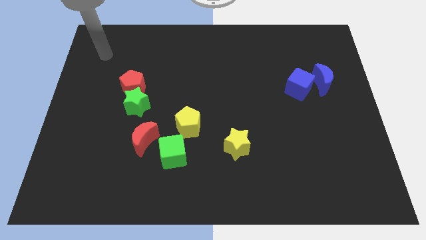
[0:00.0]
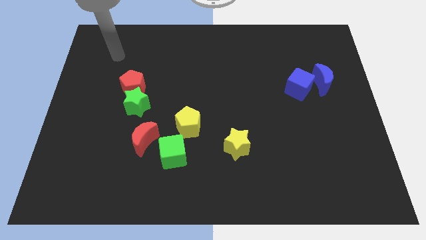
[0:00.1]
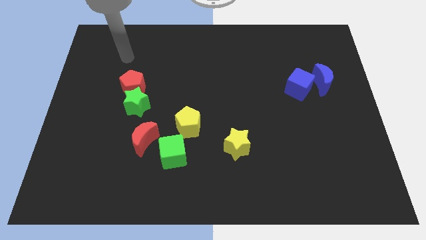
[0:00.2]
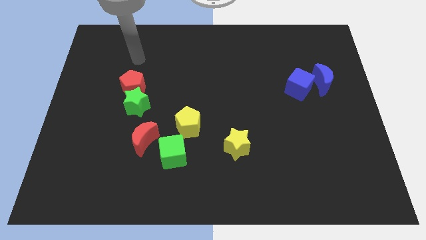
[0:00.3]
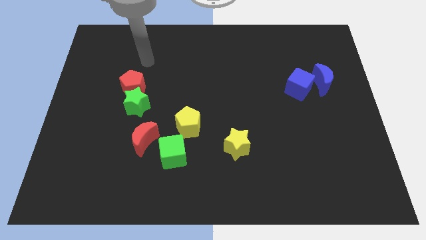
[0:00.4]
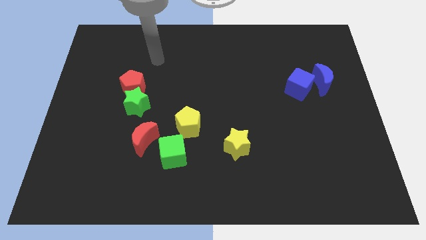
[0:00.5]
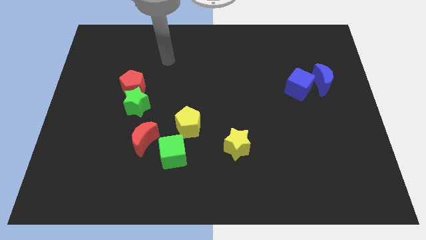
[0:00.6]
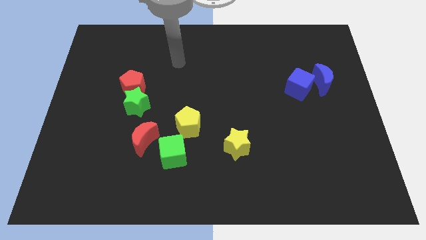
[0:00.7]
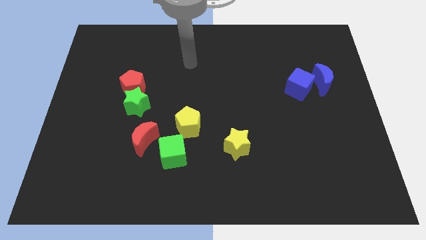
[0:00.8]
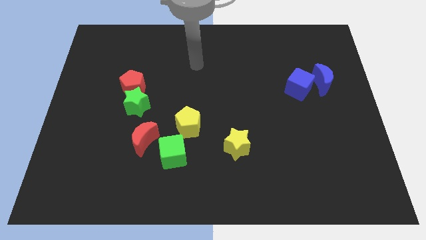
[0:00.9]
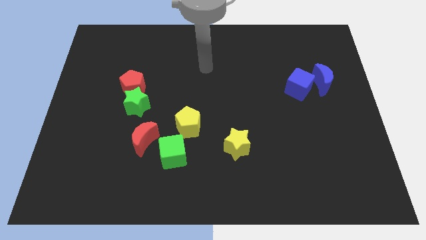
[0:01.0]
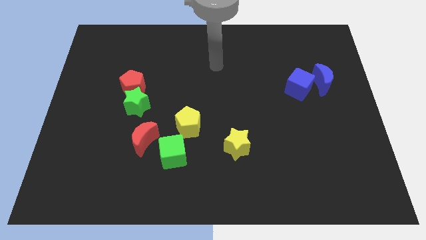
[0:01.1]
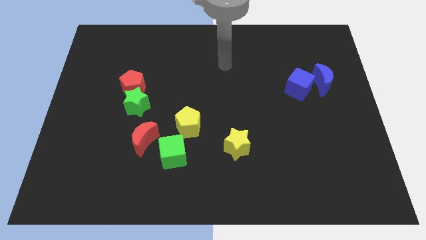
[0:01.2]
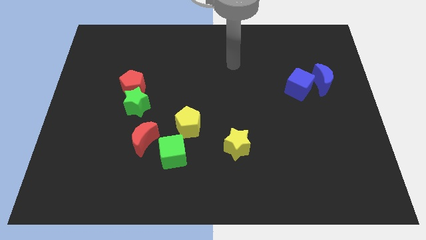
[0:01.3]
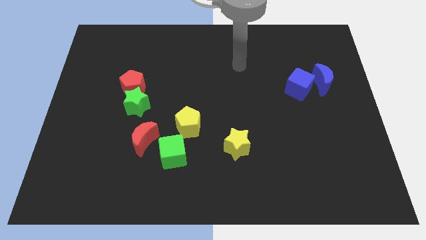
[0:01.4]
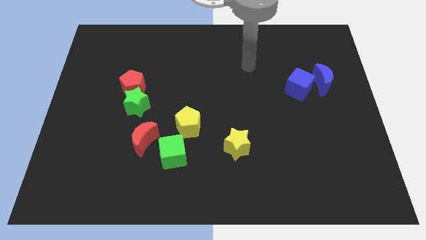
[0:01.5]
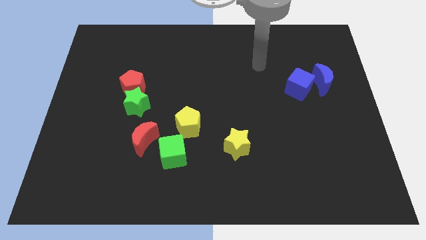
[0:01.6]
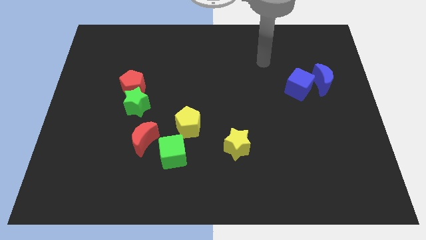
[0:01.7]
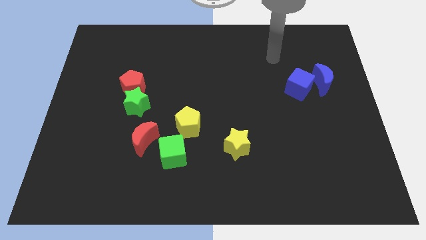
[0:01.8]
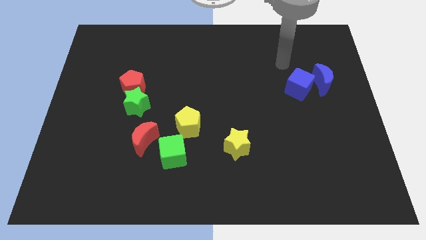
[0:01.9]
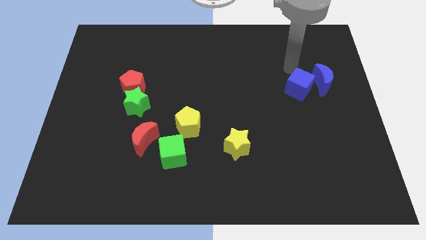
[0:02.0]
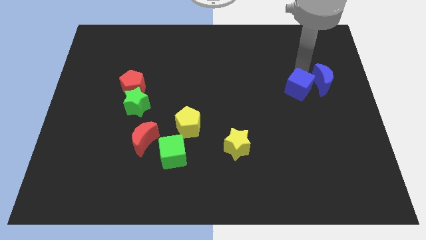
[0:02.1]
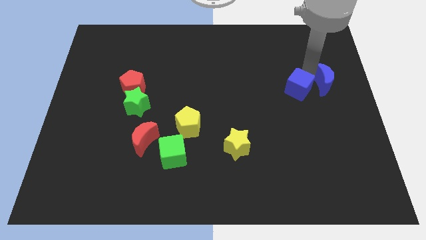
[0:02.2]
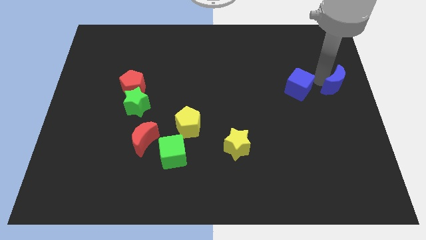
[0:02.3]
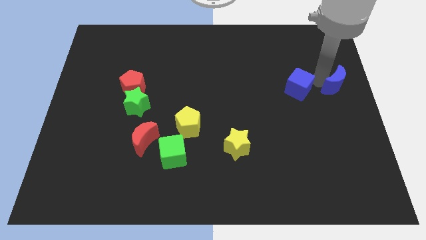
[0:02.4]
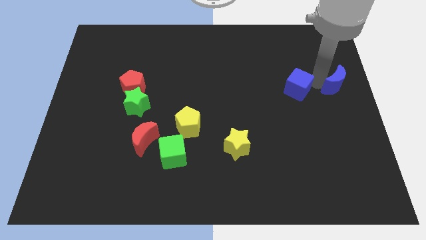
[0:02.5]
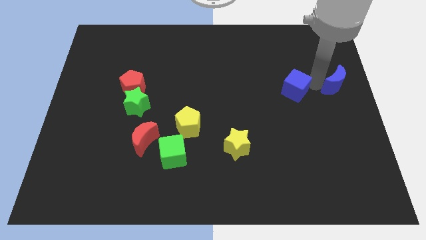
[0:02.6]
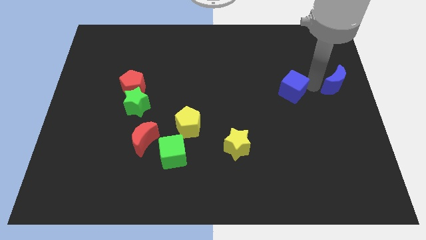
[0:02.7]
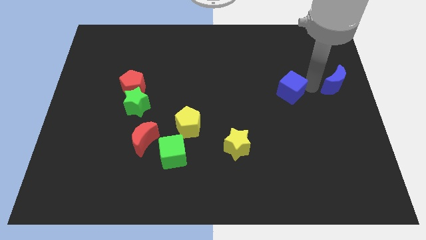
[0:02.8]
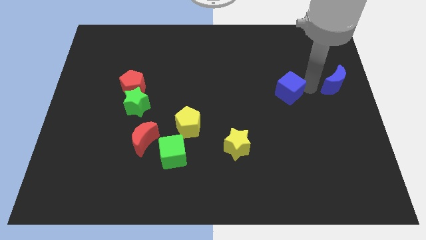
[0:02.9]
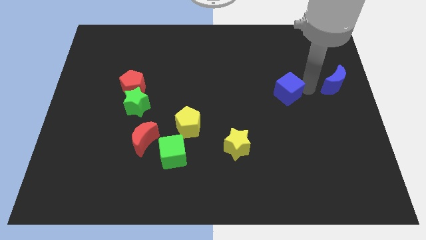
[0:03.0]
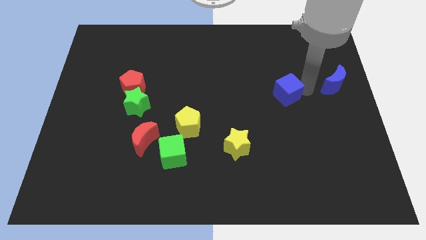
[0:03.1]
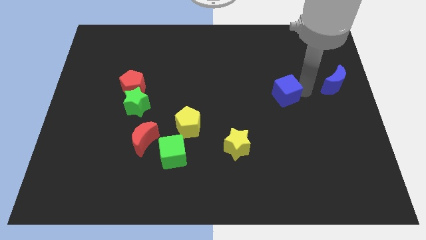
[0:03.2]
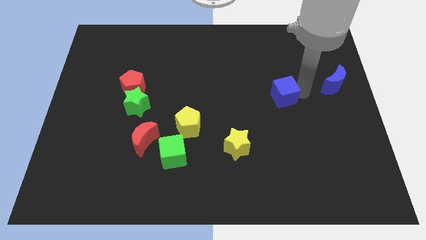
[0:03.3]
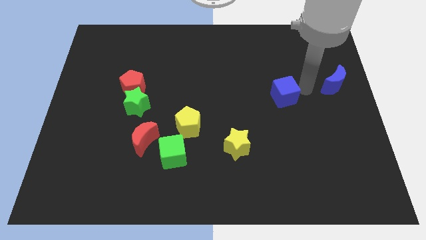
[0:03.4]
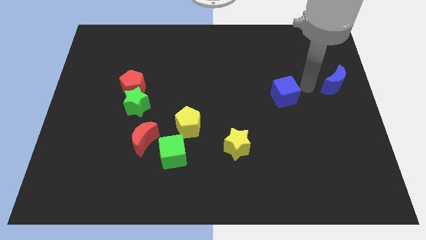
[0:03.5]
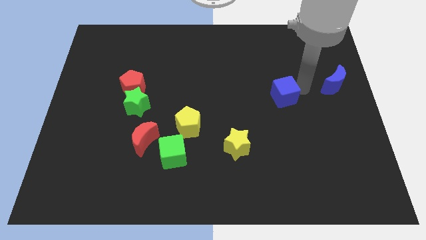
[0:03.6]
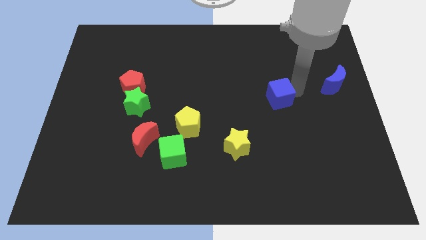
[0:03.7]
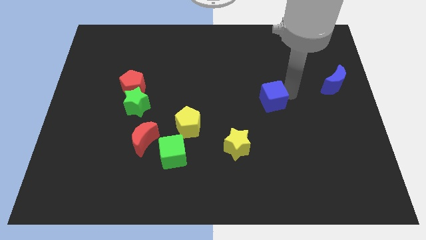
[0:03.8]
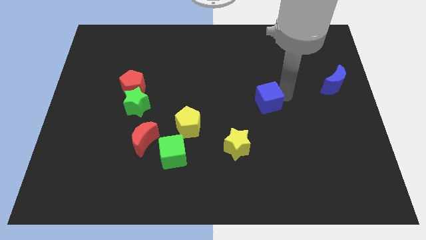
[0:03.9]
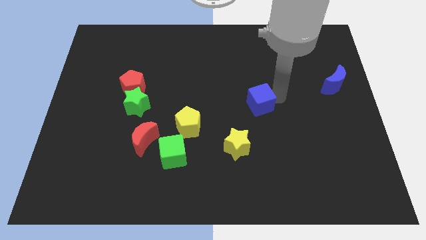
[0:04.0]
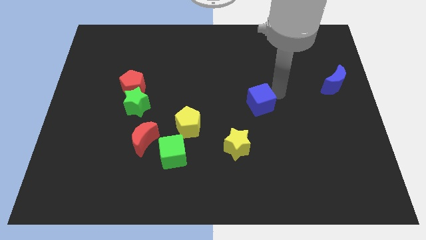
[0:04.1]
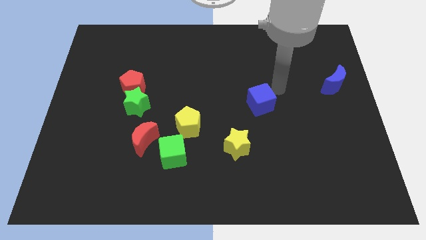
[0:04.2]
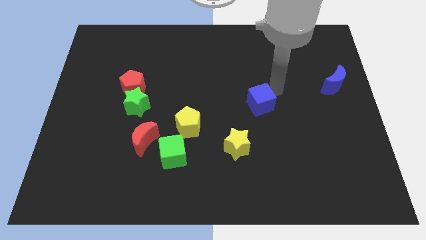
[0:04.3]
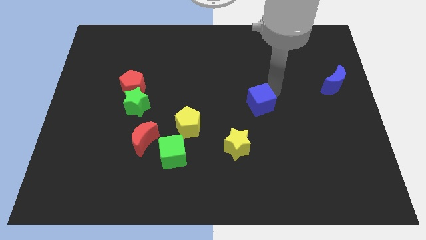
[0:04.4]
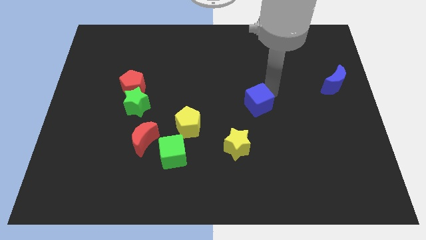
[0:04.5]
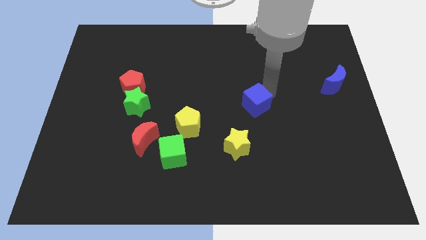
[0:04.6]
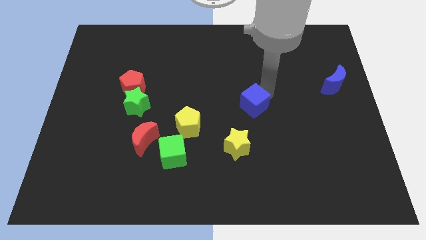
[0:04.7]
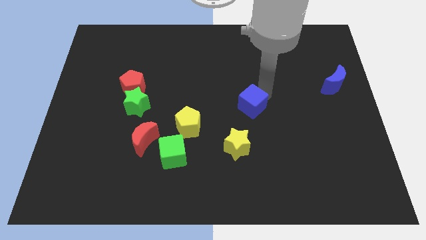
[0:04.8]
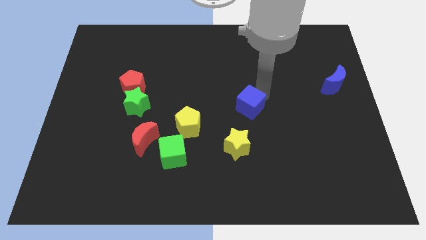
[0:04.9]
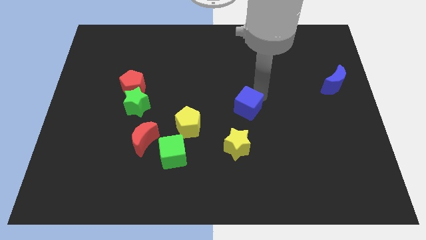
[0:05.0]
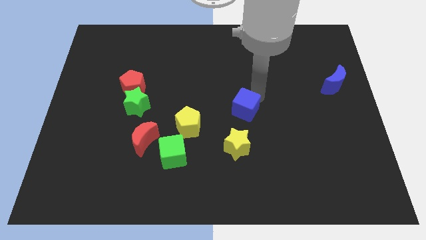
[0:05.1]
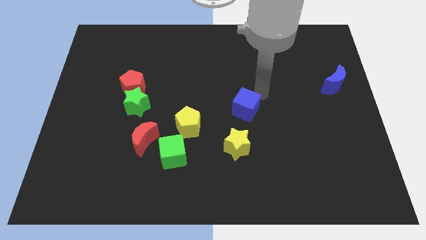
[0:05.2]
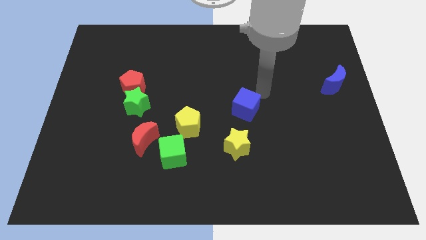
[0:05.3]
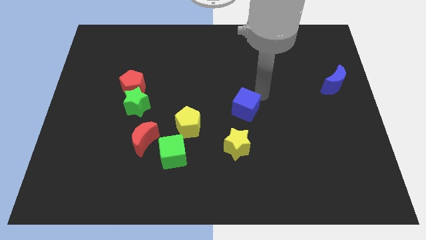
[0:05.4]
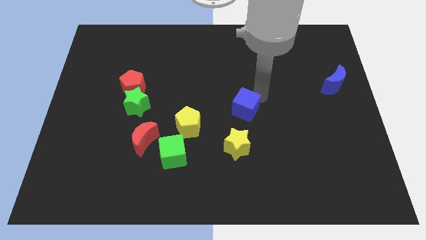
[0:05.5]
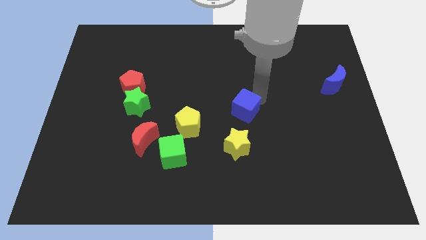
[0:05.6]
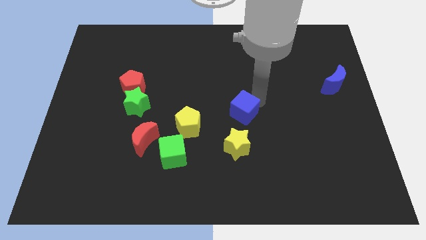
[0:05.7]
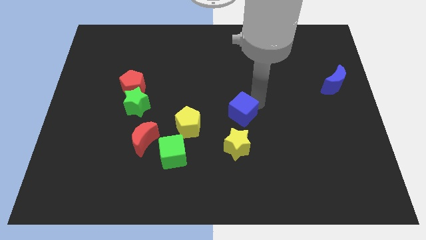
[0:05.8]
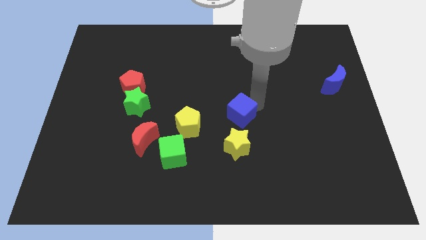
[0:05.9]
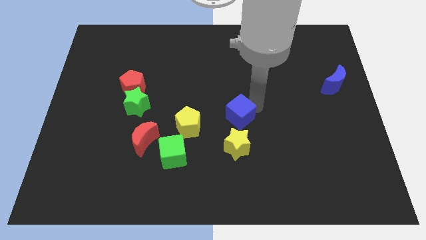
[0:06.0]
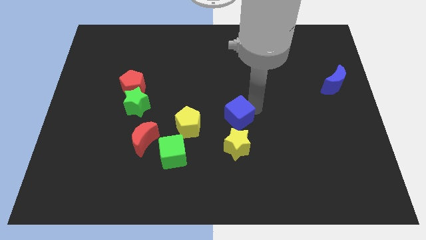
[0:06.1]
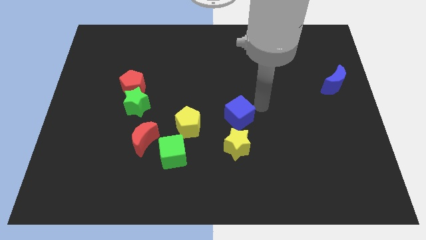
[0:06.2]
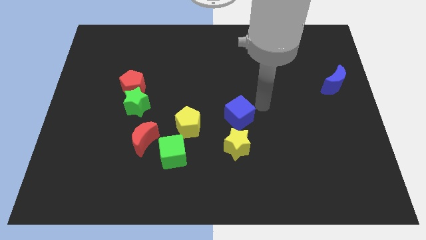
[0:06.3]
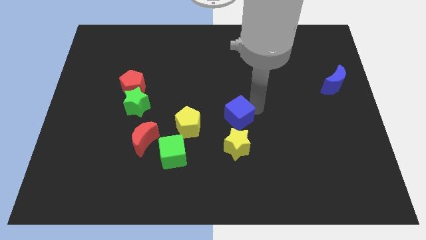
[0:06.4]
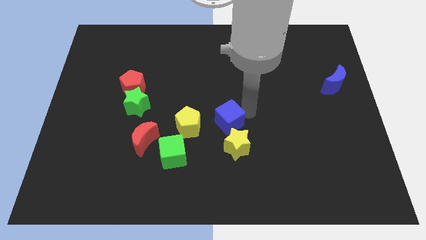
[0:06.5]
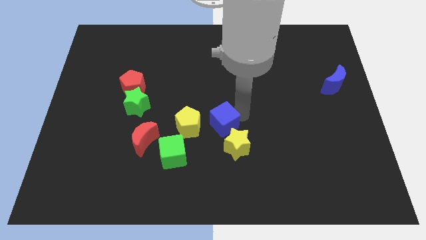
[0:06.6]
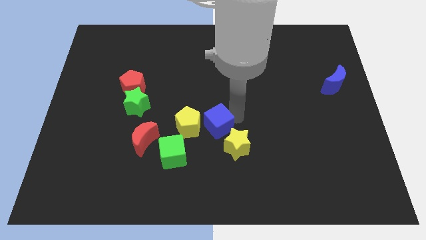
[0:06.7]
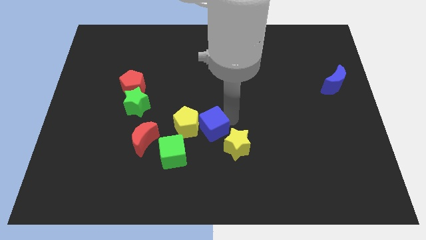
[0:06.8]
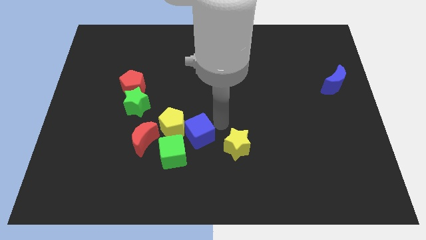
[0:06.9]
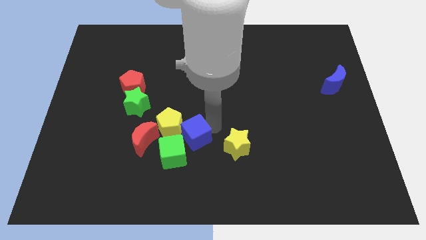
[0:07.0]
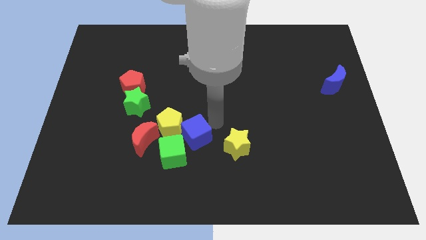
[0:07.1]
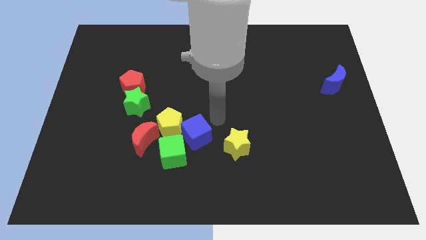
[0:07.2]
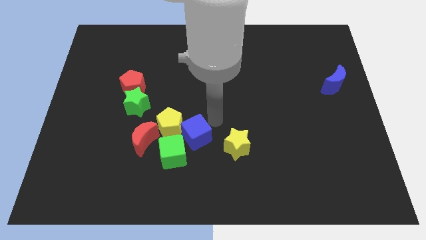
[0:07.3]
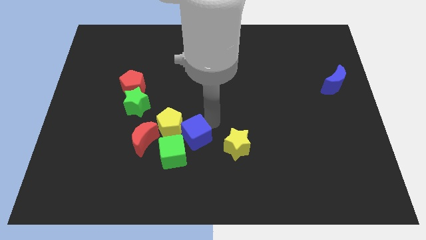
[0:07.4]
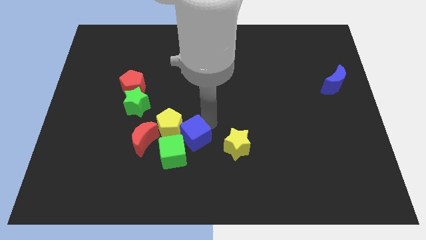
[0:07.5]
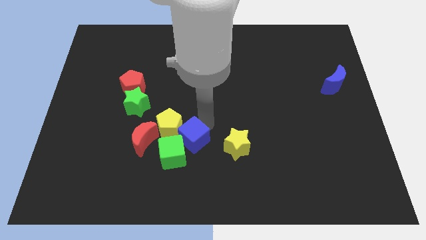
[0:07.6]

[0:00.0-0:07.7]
slide the blue cube towards the green cube

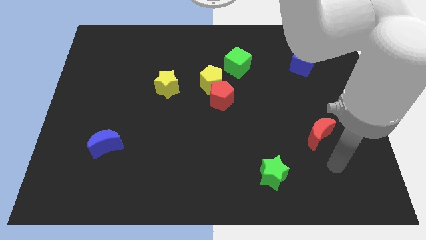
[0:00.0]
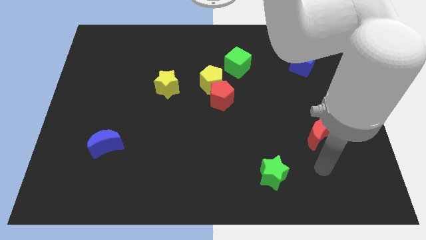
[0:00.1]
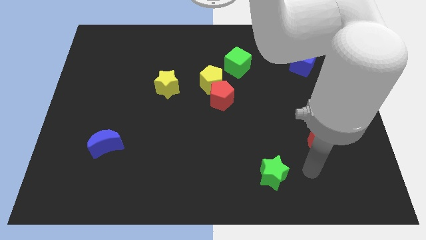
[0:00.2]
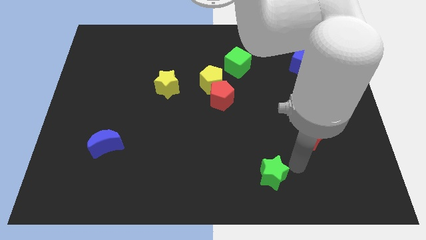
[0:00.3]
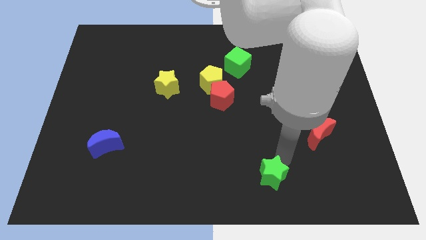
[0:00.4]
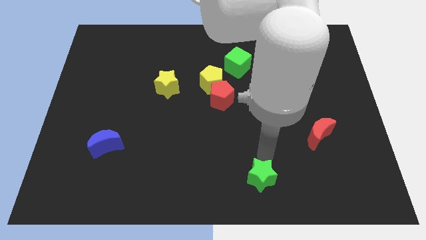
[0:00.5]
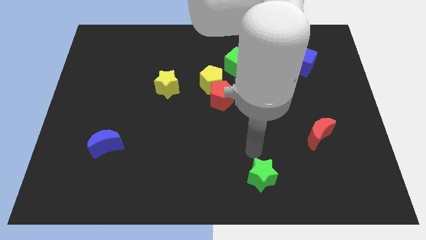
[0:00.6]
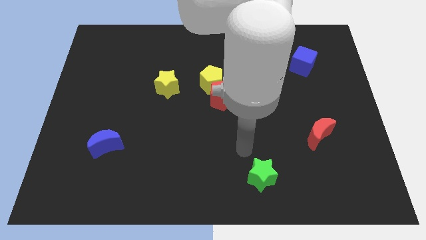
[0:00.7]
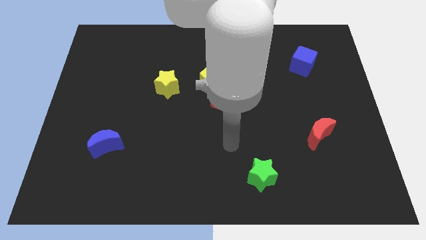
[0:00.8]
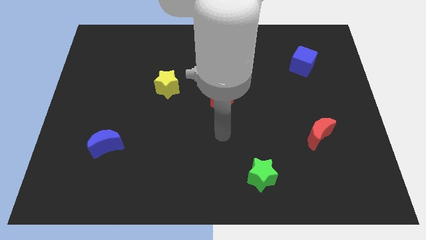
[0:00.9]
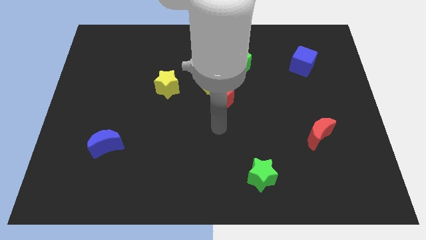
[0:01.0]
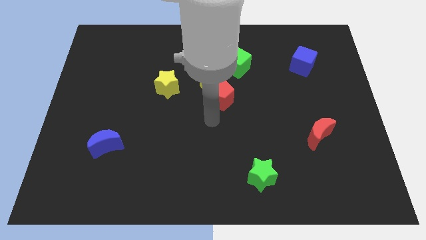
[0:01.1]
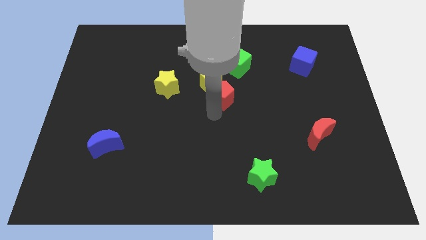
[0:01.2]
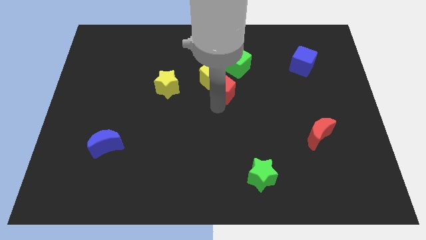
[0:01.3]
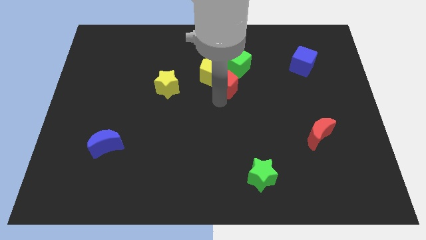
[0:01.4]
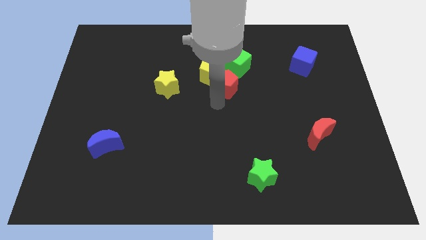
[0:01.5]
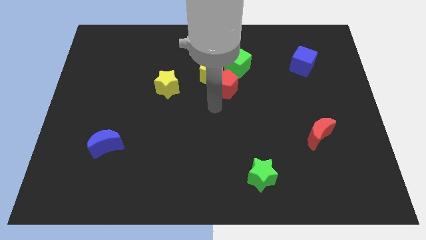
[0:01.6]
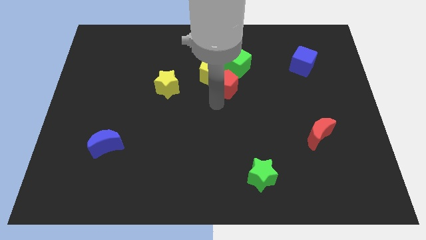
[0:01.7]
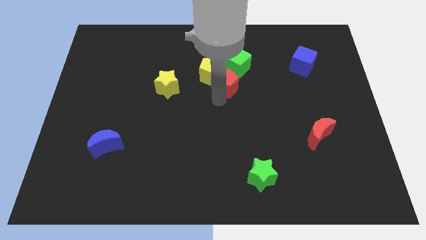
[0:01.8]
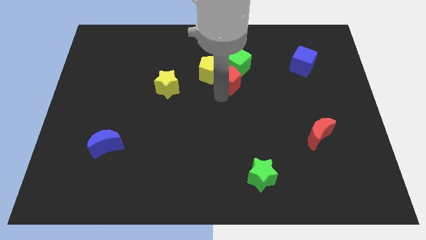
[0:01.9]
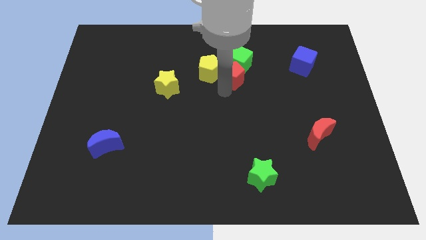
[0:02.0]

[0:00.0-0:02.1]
move the red pentagon towards the green cube
